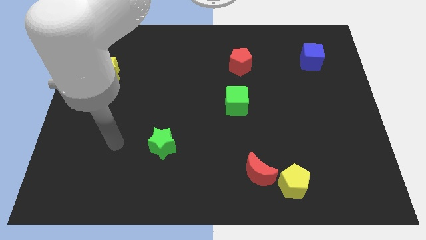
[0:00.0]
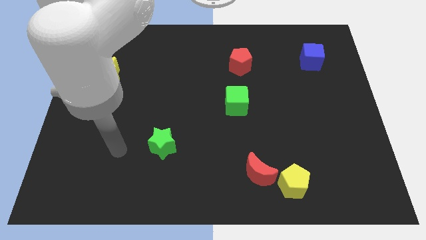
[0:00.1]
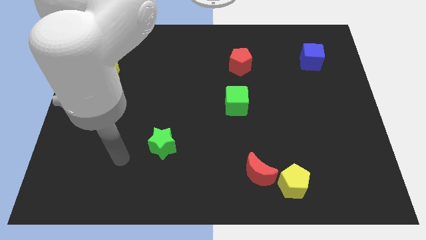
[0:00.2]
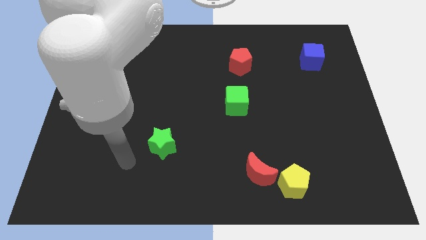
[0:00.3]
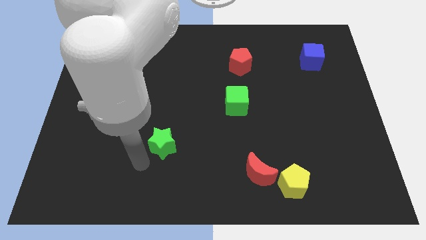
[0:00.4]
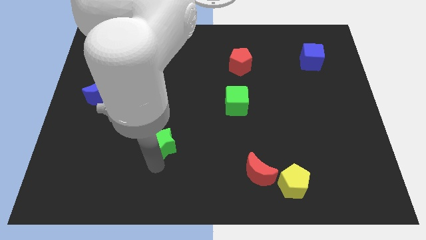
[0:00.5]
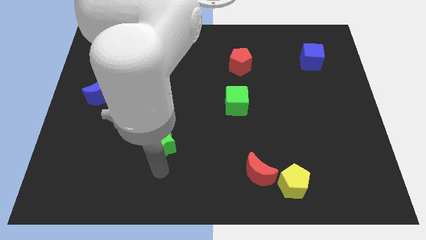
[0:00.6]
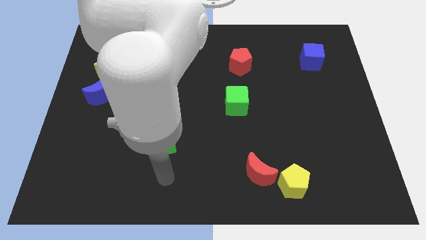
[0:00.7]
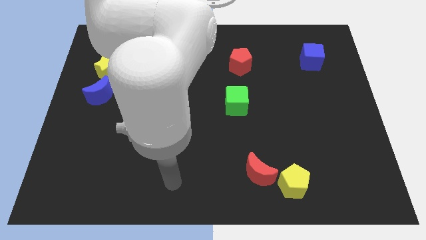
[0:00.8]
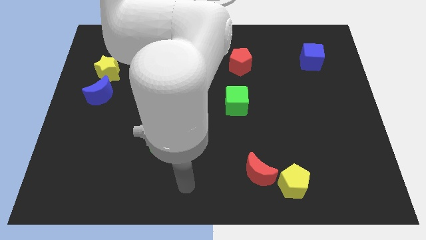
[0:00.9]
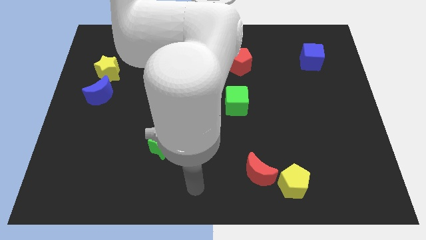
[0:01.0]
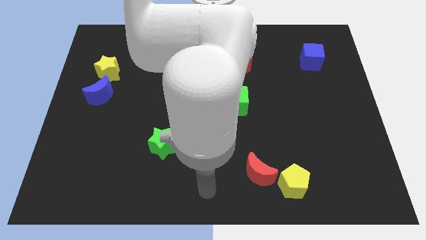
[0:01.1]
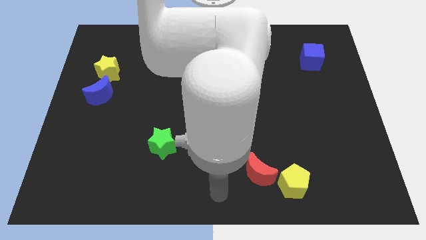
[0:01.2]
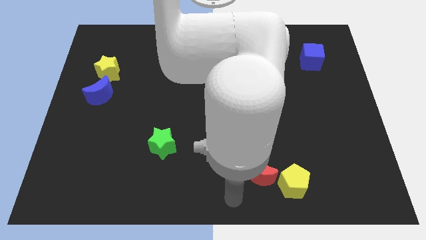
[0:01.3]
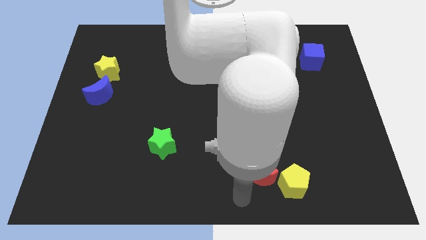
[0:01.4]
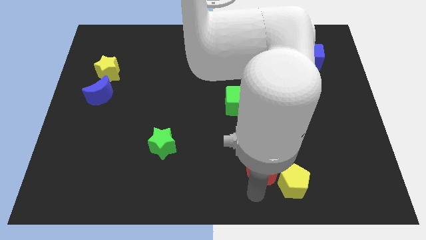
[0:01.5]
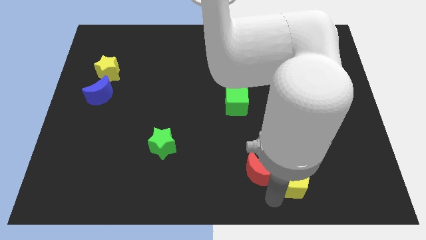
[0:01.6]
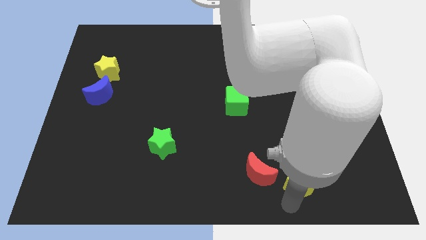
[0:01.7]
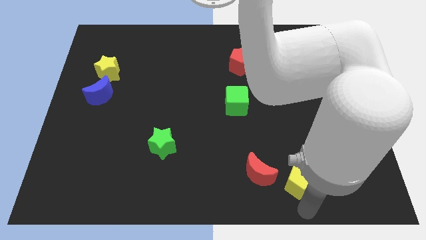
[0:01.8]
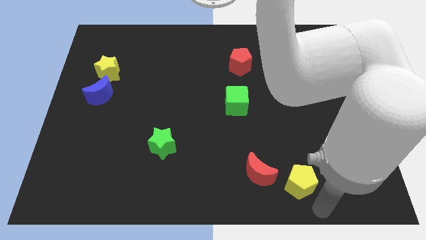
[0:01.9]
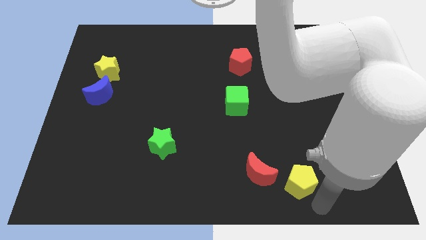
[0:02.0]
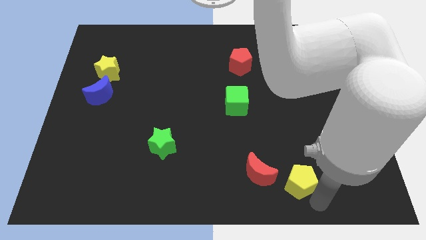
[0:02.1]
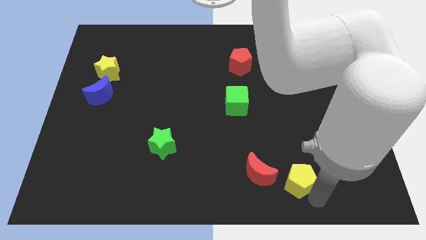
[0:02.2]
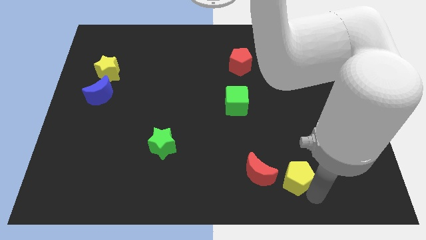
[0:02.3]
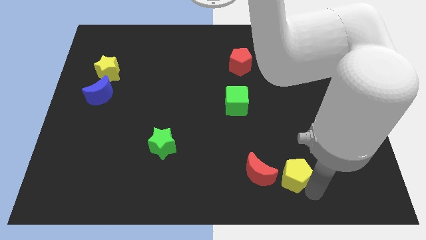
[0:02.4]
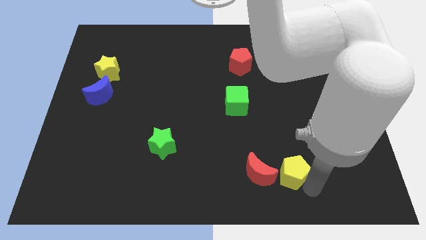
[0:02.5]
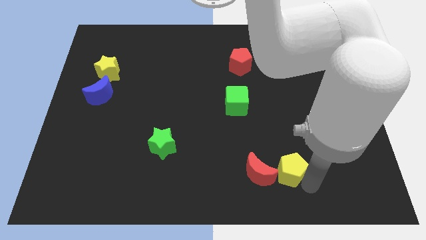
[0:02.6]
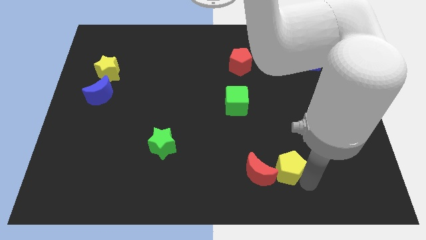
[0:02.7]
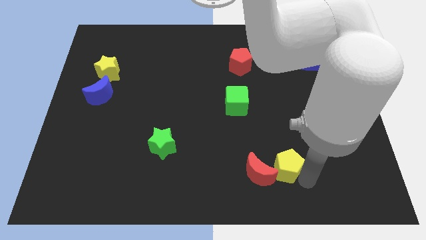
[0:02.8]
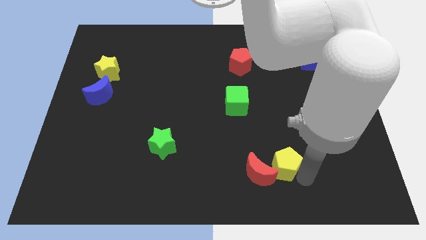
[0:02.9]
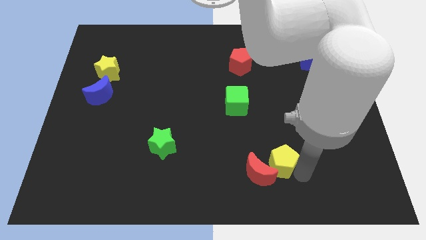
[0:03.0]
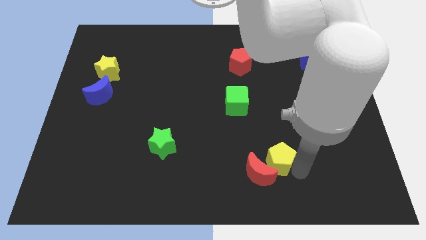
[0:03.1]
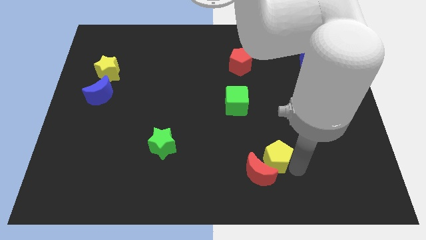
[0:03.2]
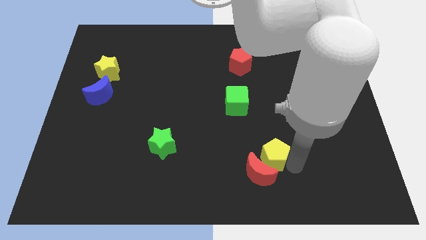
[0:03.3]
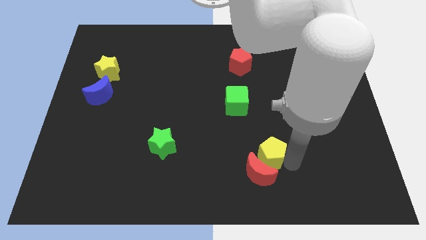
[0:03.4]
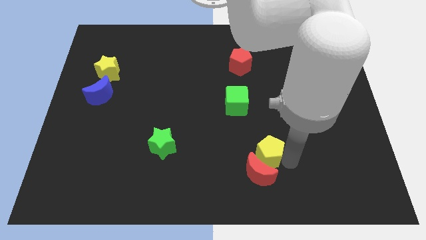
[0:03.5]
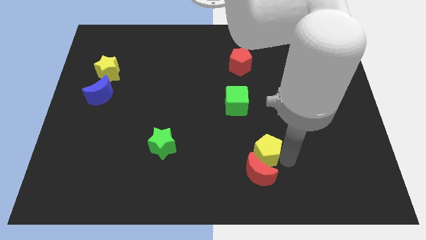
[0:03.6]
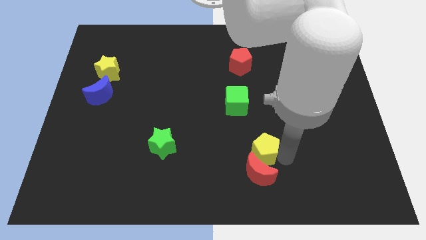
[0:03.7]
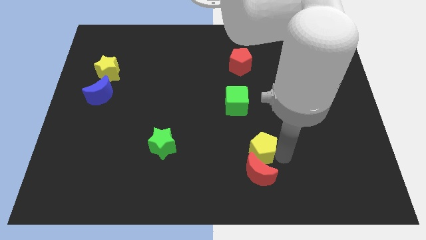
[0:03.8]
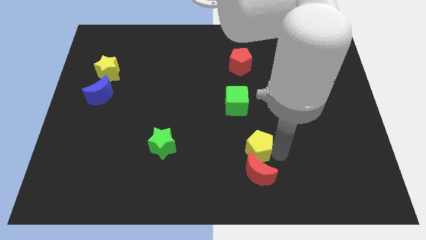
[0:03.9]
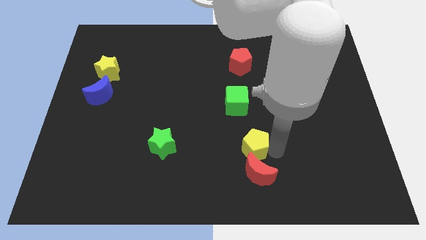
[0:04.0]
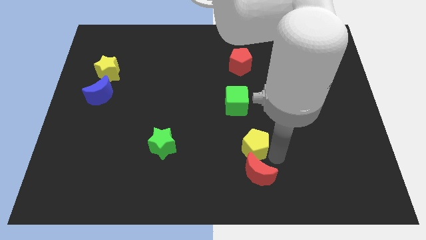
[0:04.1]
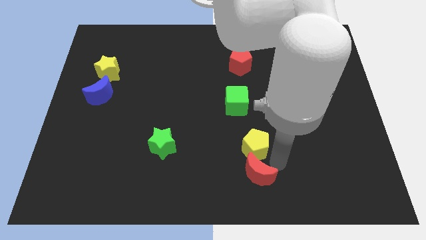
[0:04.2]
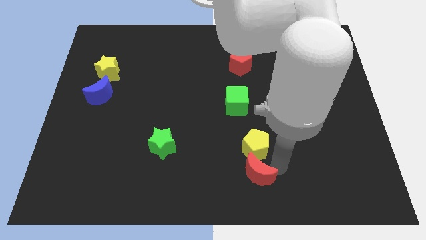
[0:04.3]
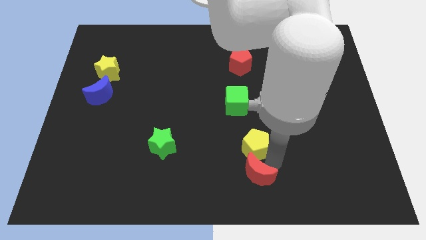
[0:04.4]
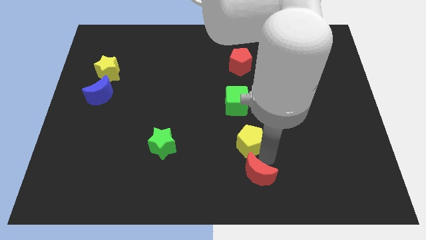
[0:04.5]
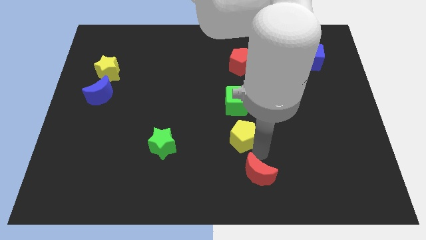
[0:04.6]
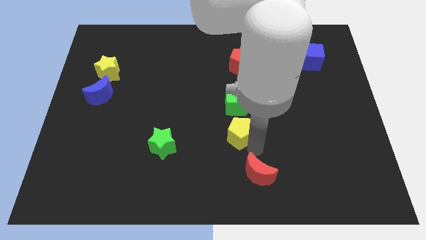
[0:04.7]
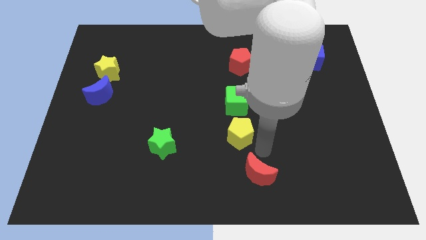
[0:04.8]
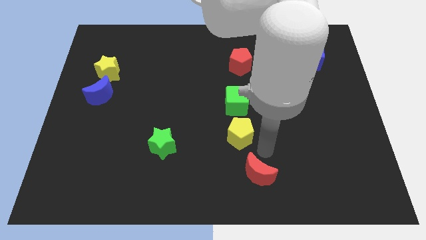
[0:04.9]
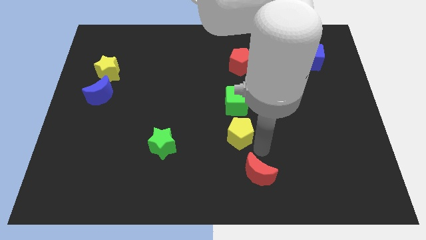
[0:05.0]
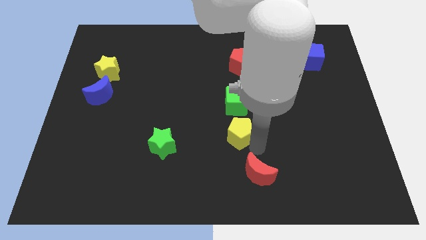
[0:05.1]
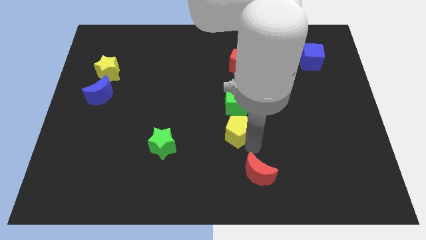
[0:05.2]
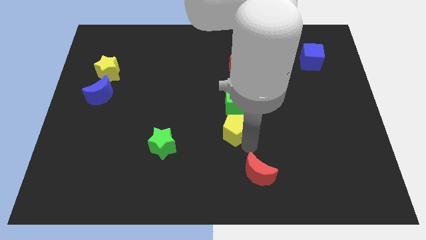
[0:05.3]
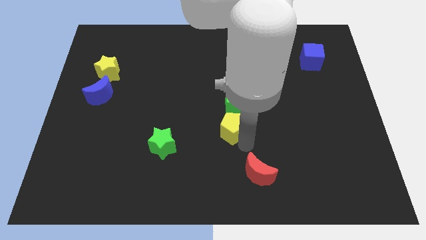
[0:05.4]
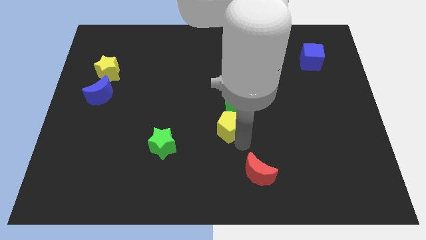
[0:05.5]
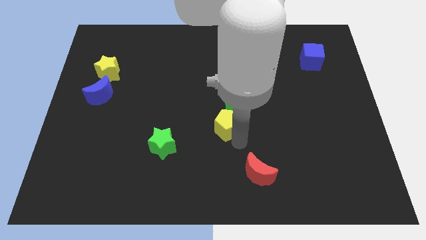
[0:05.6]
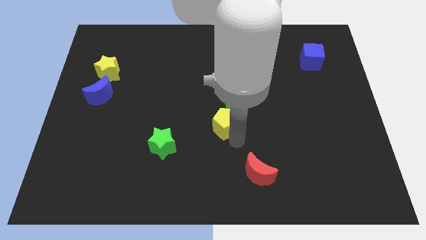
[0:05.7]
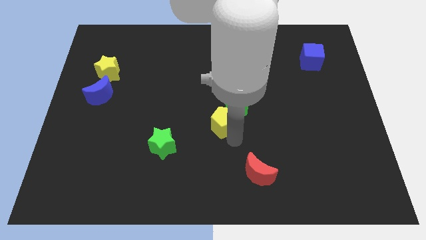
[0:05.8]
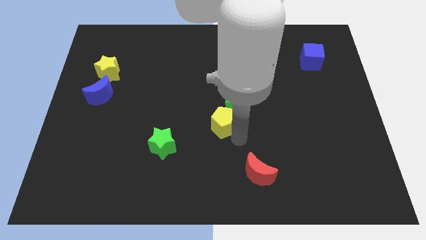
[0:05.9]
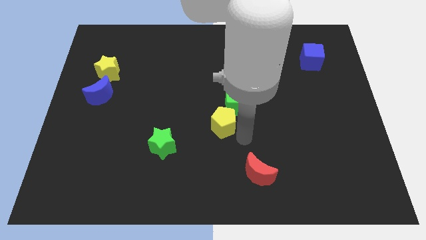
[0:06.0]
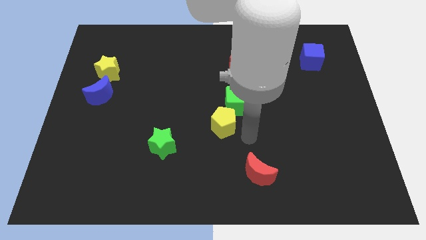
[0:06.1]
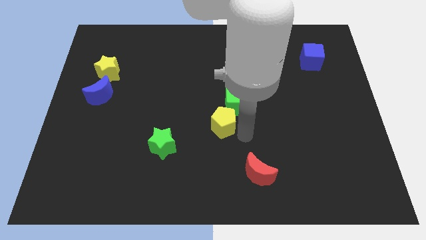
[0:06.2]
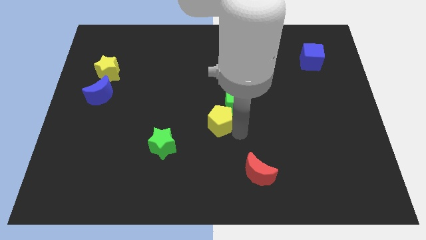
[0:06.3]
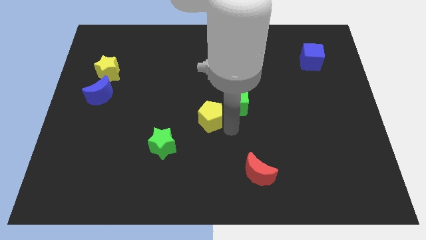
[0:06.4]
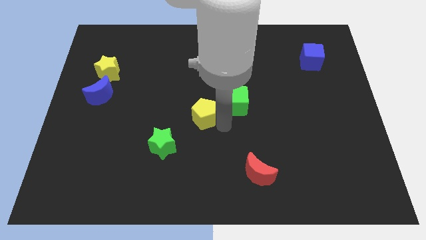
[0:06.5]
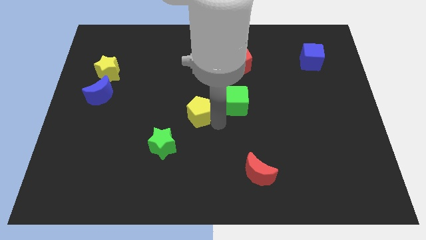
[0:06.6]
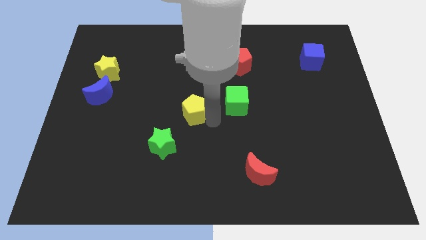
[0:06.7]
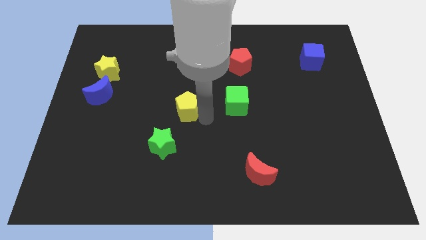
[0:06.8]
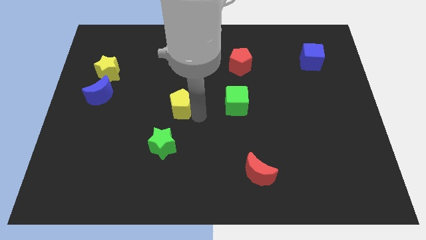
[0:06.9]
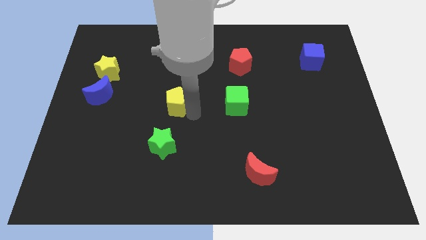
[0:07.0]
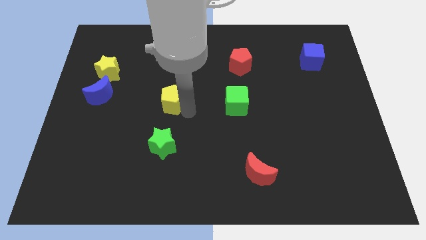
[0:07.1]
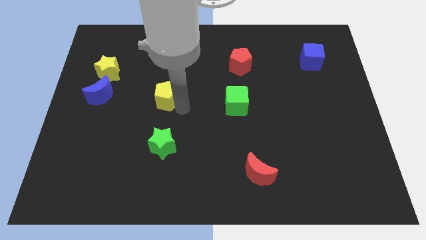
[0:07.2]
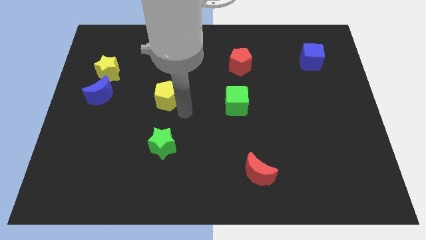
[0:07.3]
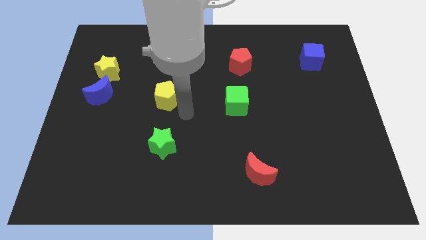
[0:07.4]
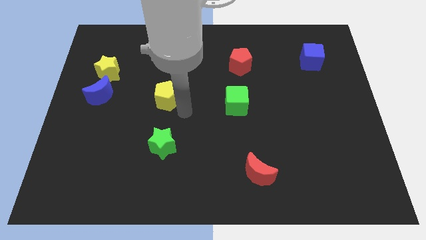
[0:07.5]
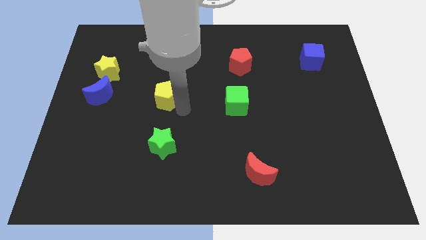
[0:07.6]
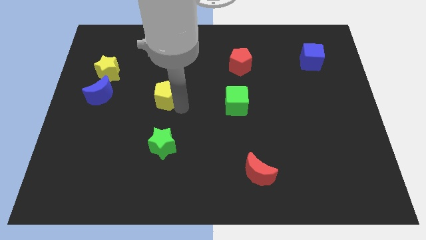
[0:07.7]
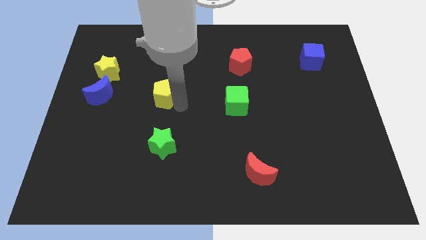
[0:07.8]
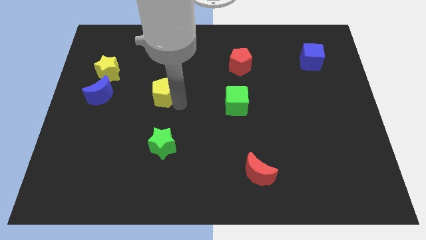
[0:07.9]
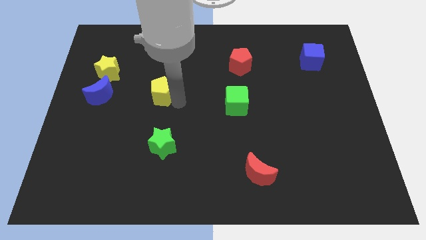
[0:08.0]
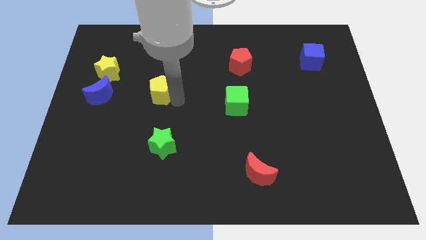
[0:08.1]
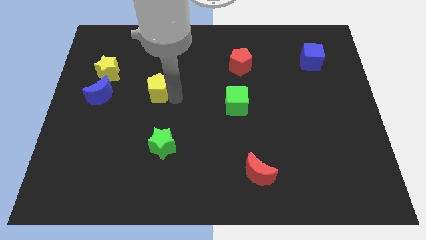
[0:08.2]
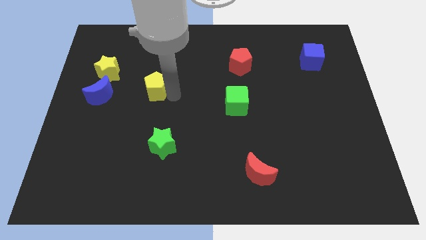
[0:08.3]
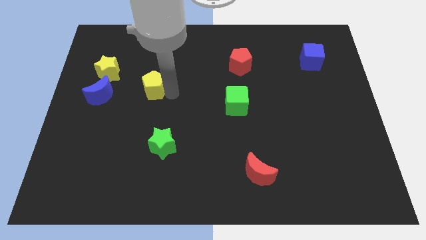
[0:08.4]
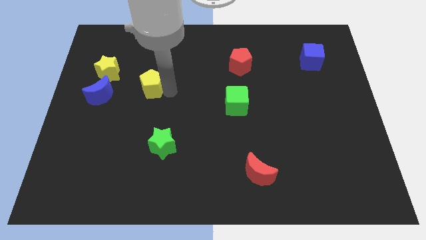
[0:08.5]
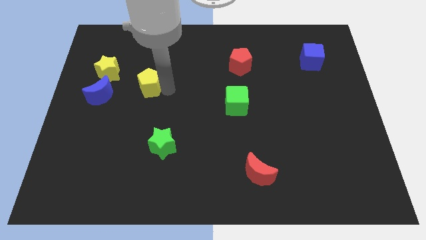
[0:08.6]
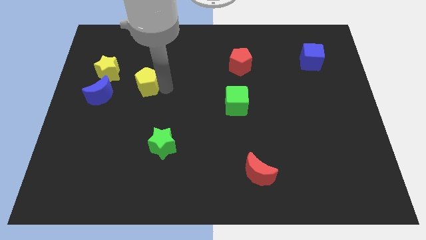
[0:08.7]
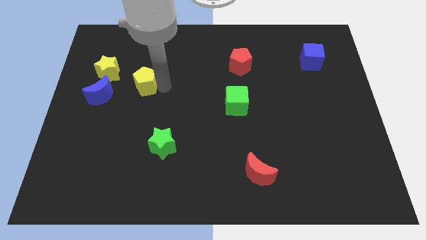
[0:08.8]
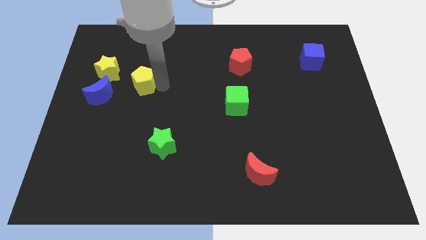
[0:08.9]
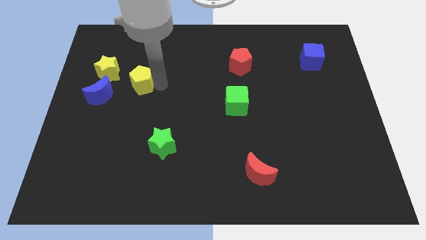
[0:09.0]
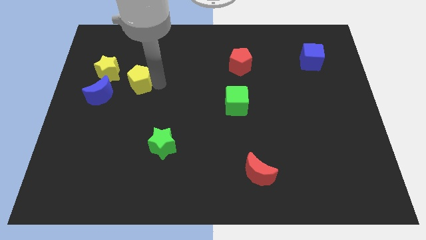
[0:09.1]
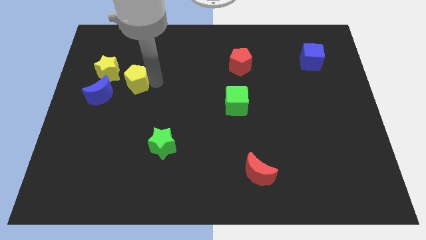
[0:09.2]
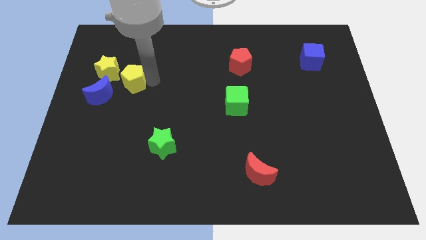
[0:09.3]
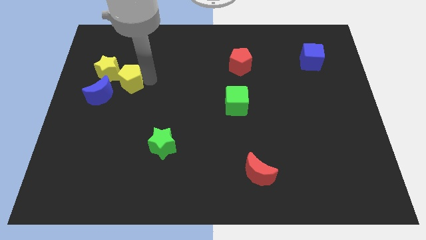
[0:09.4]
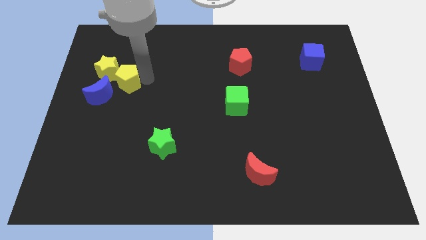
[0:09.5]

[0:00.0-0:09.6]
slide the yellow pentagon towards the yellow star
